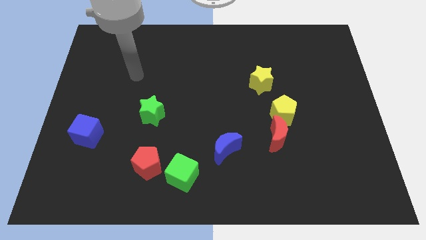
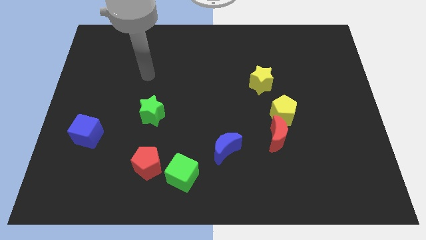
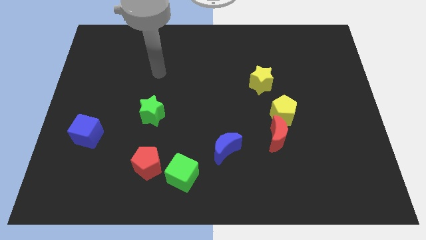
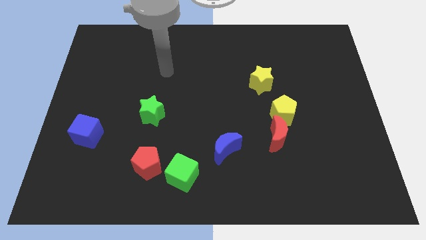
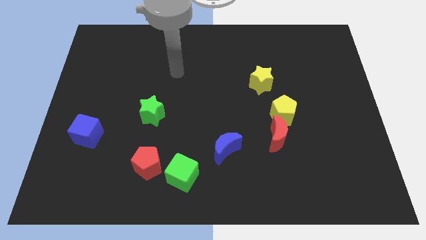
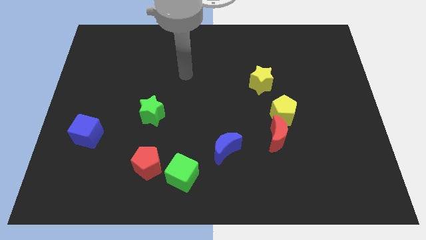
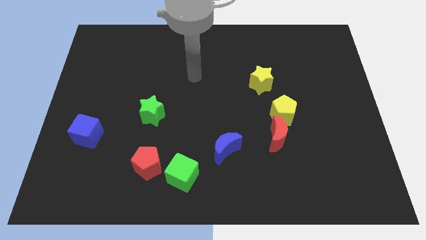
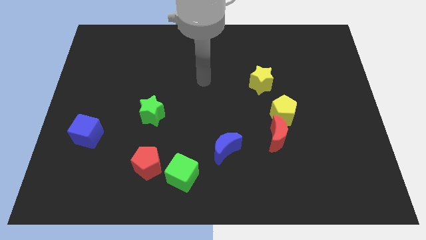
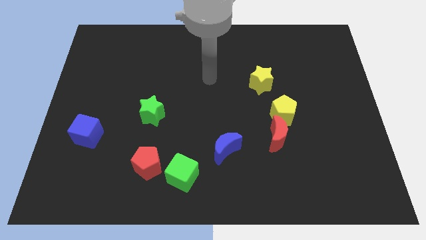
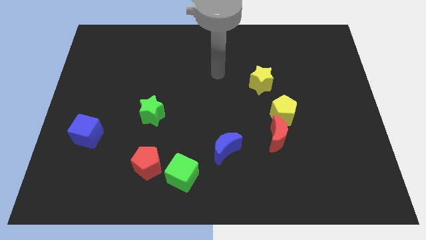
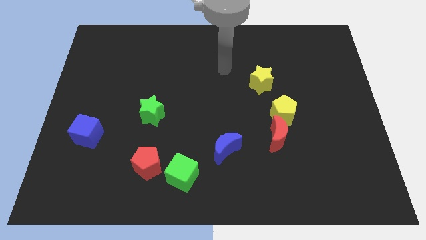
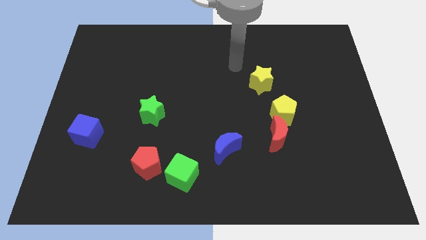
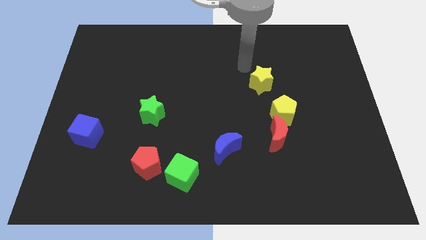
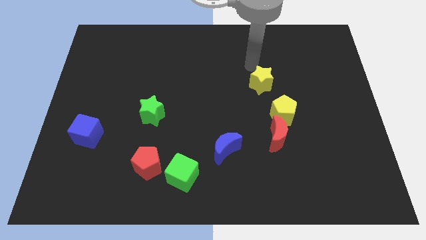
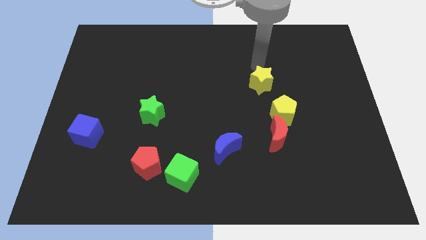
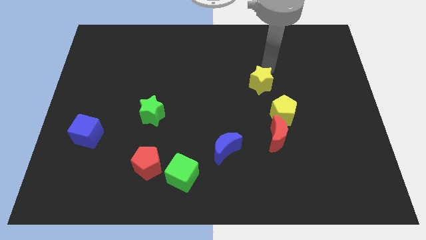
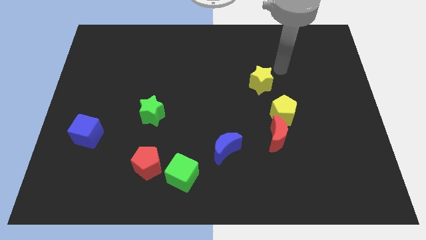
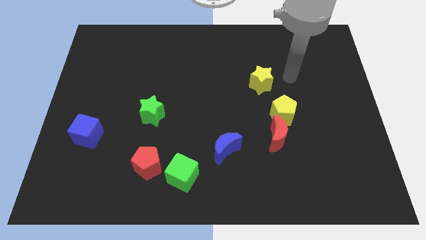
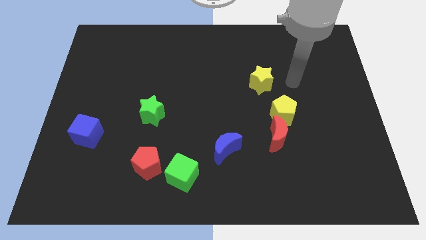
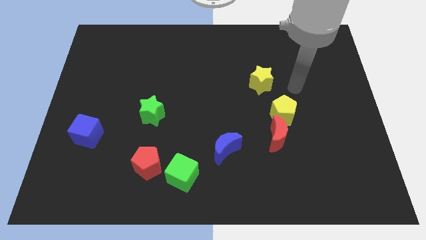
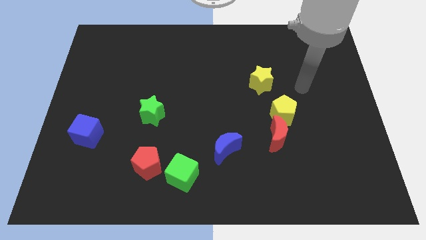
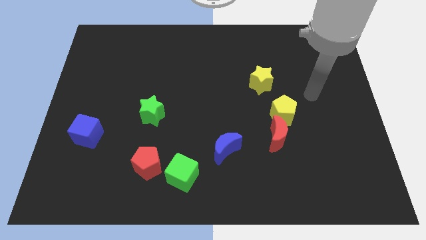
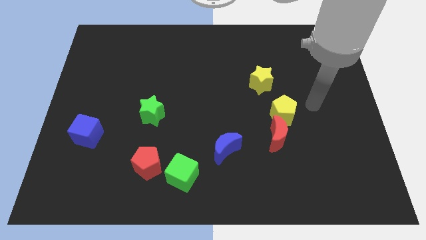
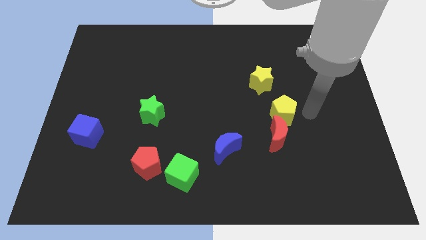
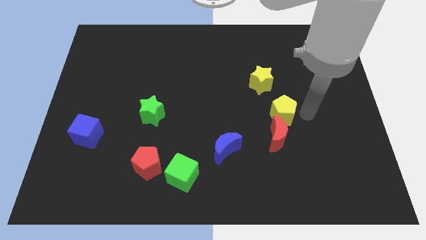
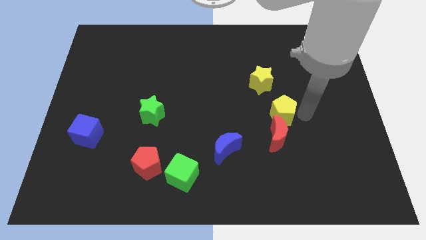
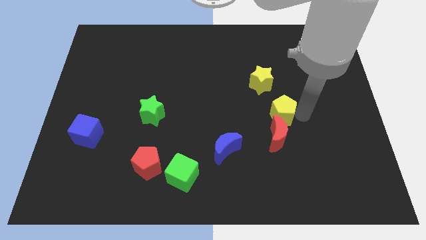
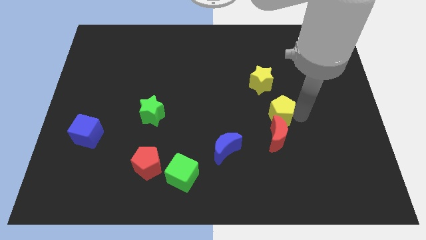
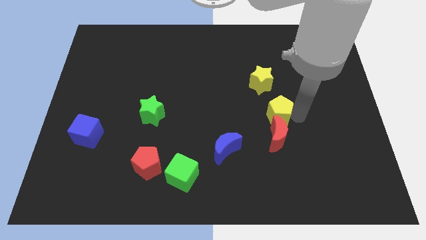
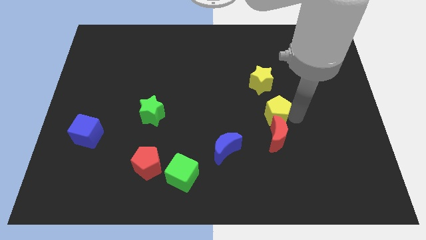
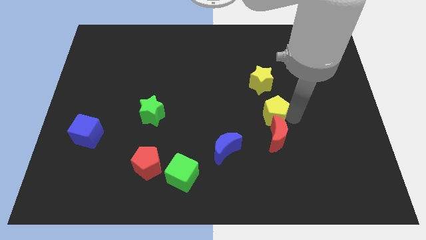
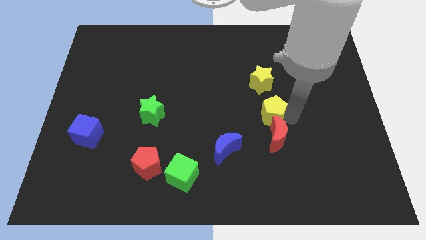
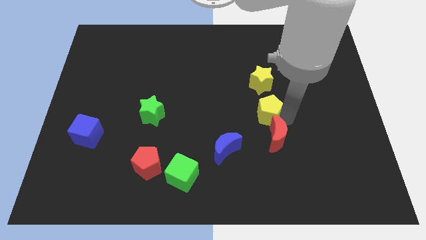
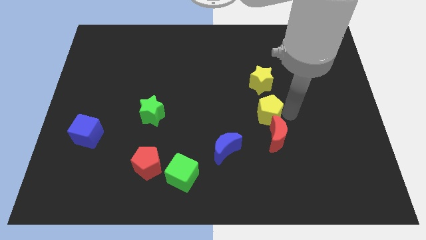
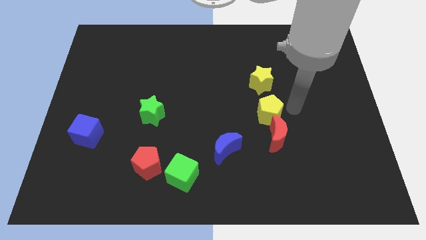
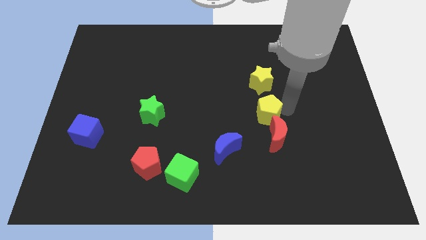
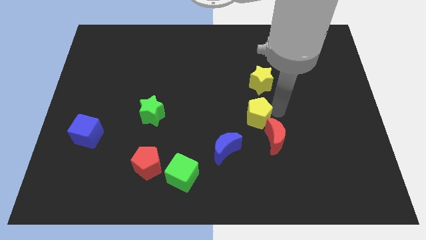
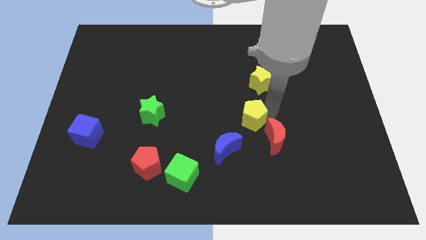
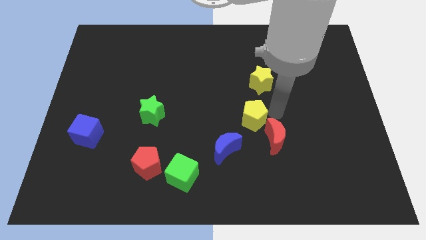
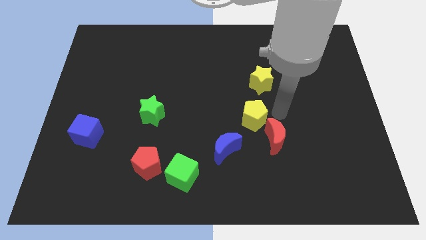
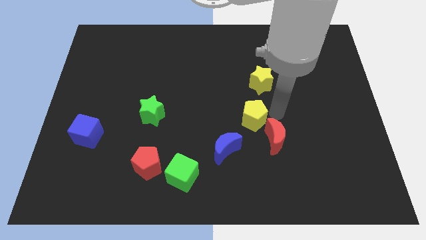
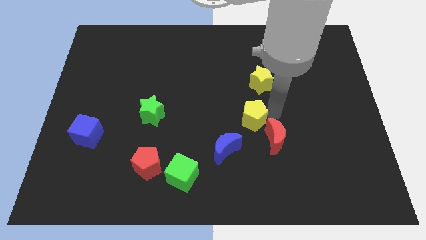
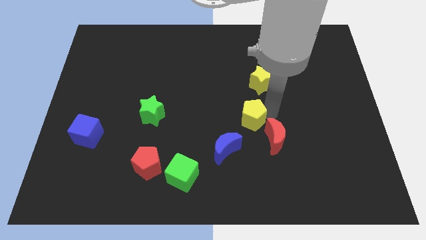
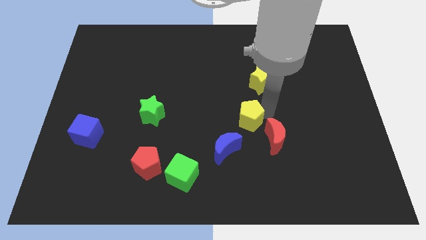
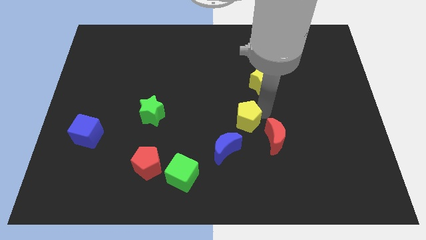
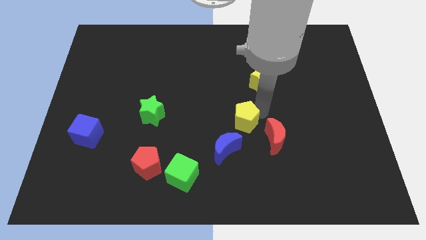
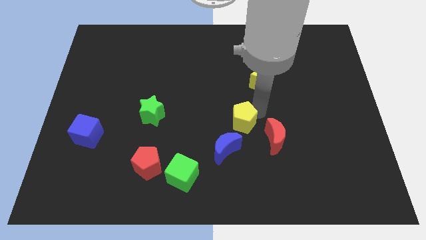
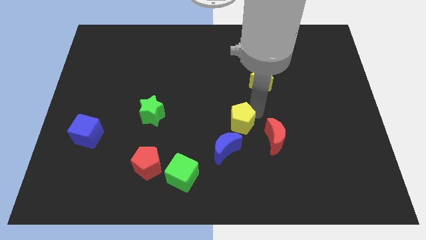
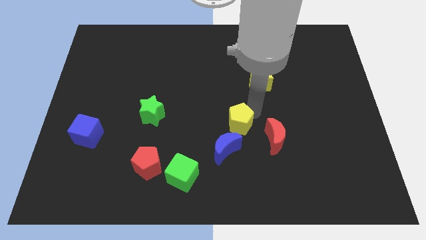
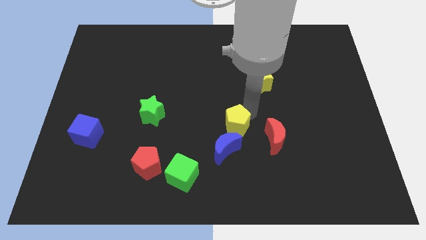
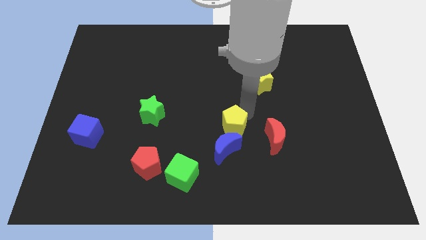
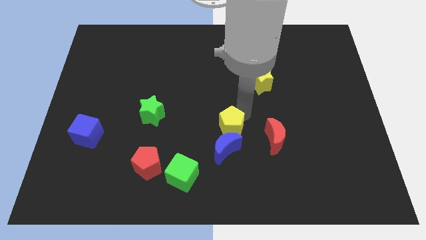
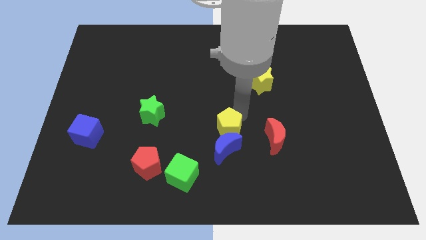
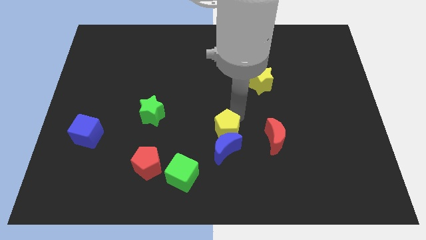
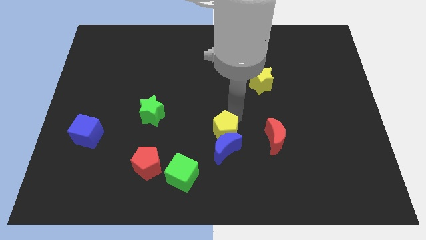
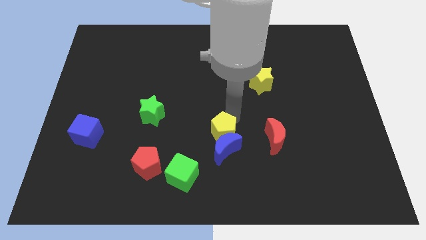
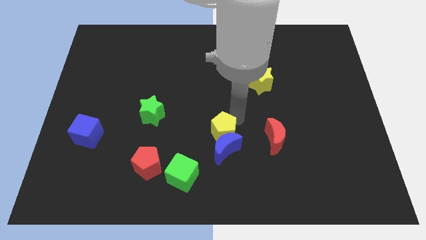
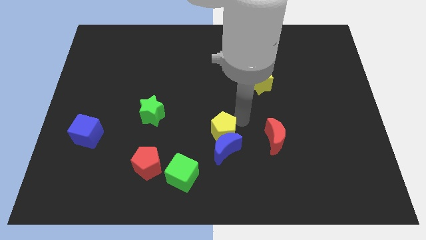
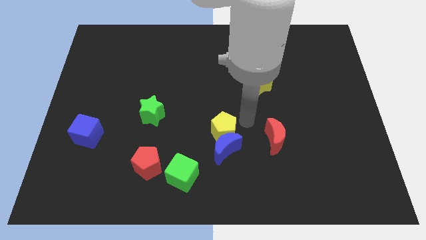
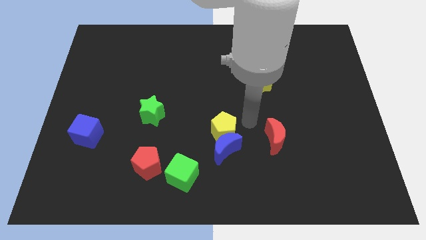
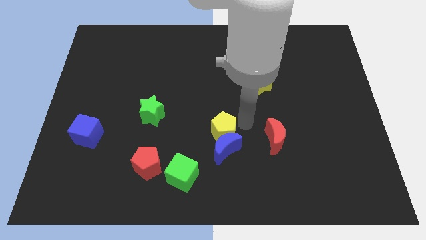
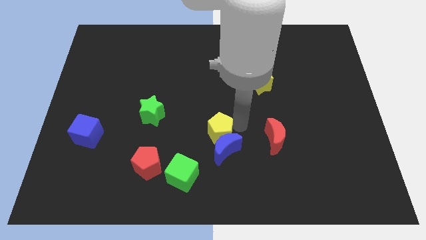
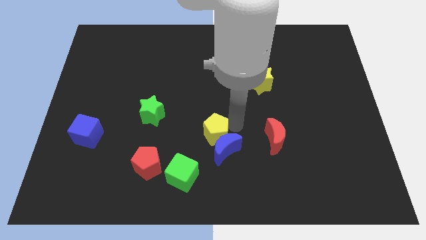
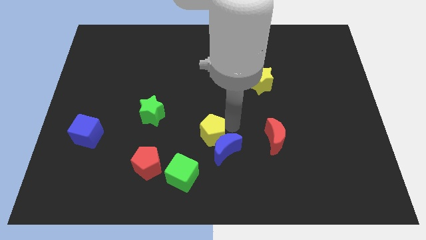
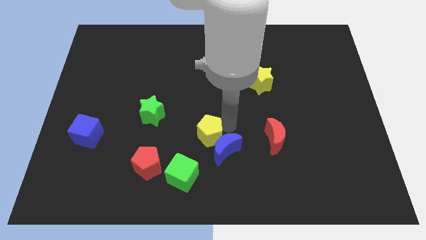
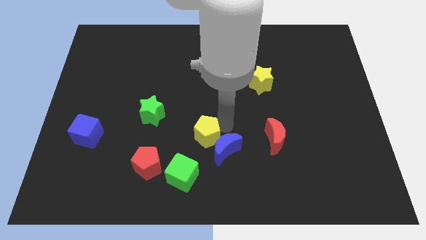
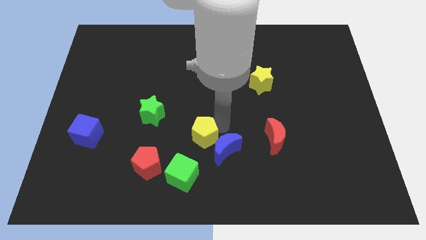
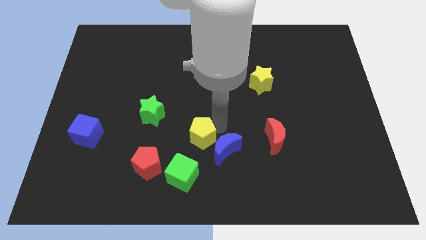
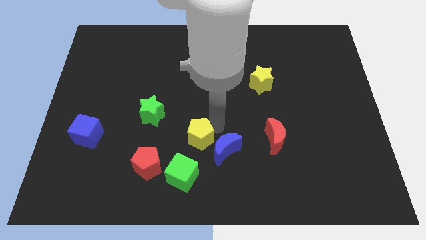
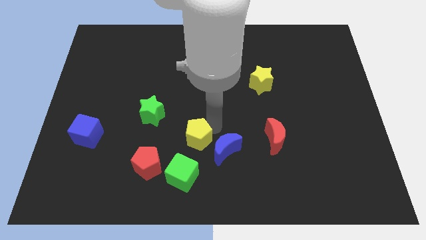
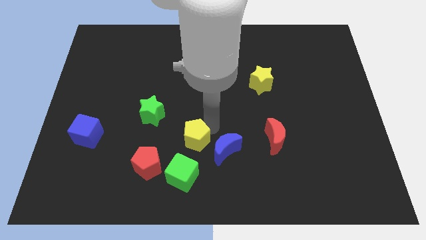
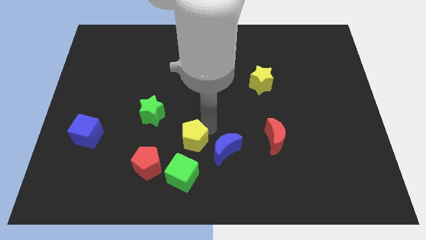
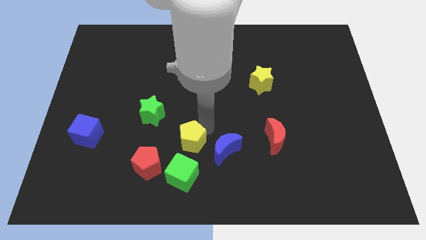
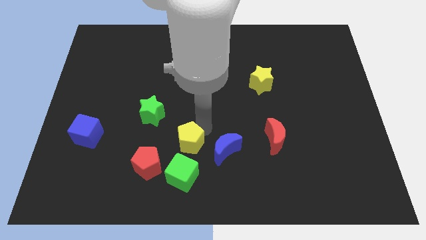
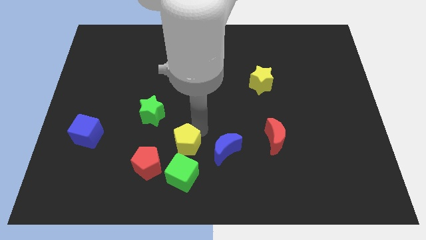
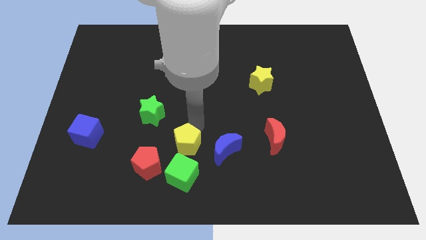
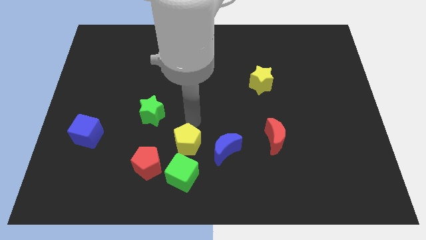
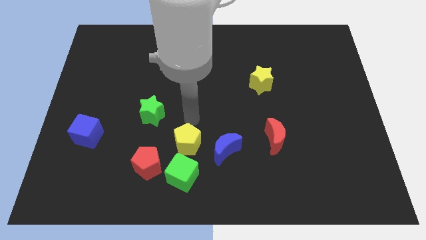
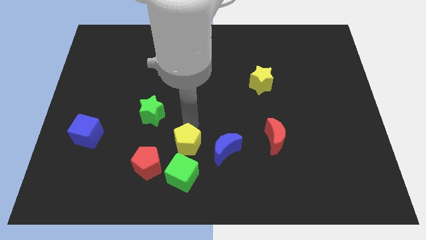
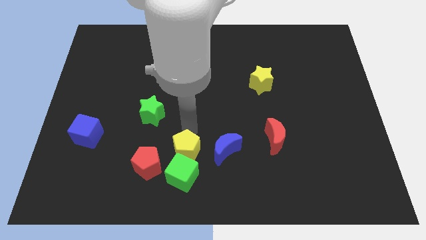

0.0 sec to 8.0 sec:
put the yellow pentagon to the green cube
